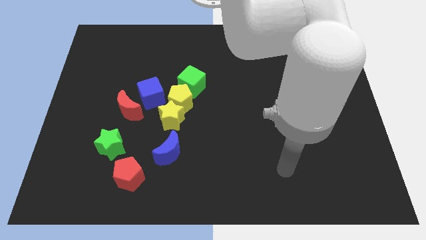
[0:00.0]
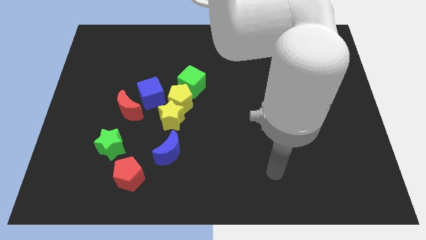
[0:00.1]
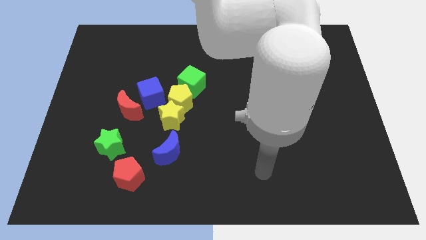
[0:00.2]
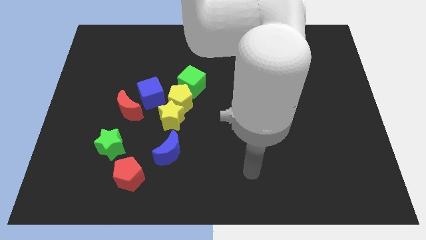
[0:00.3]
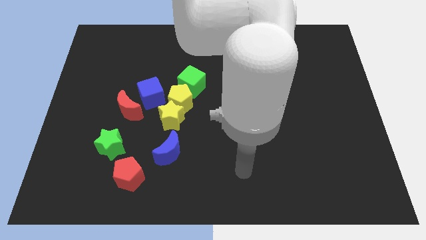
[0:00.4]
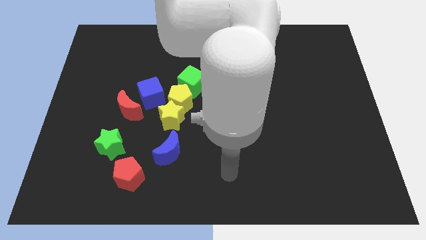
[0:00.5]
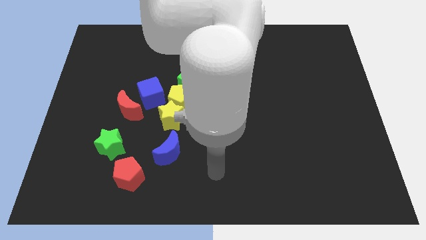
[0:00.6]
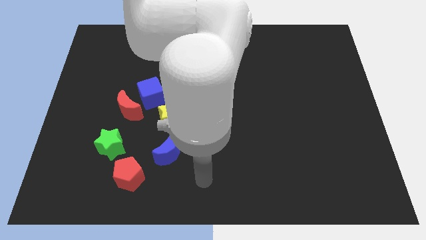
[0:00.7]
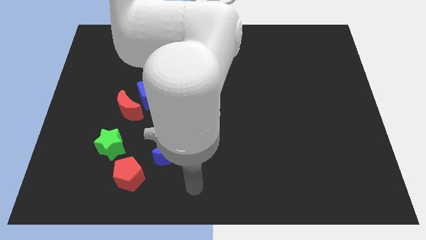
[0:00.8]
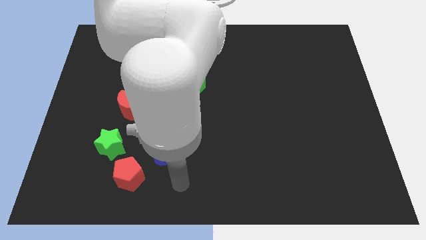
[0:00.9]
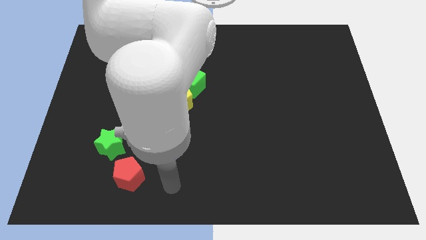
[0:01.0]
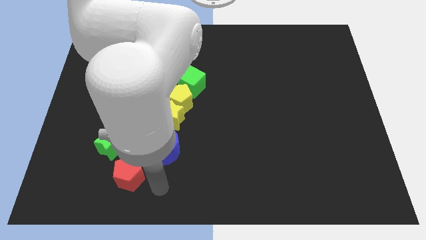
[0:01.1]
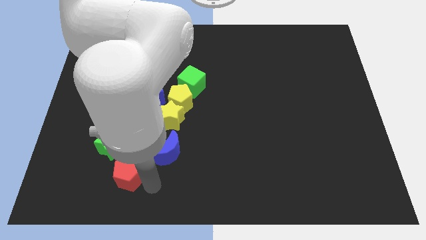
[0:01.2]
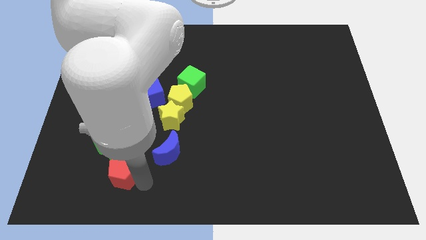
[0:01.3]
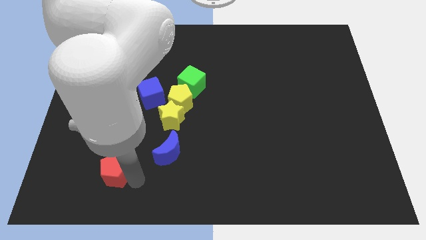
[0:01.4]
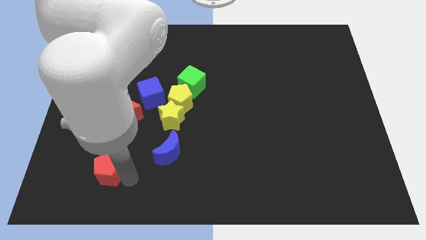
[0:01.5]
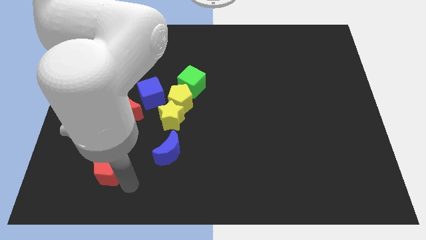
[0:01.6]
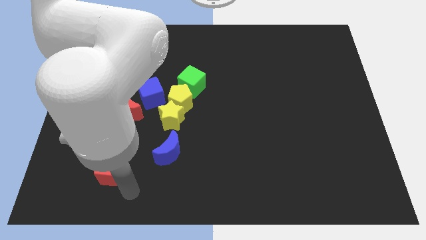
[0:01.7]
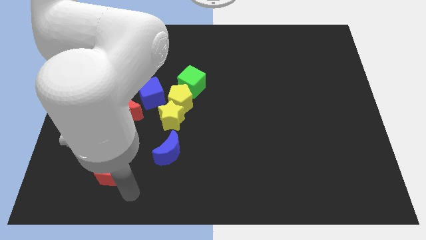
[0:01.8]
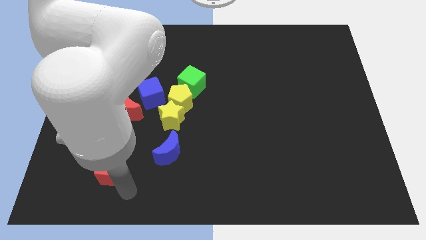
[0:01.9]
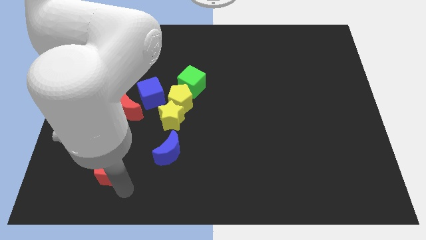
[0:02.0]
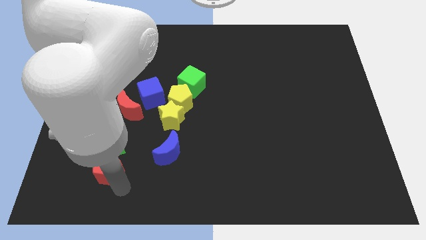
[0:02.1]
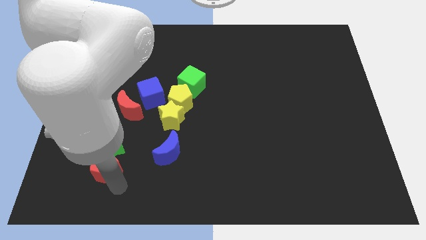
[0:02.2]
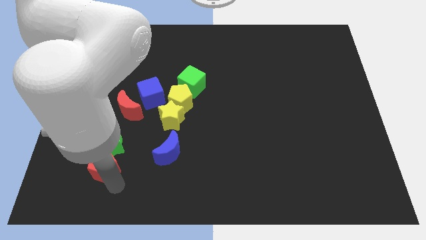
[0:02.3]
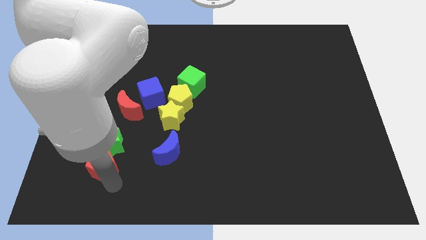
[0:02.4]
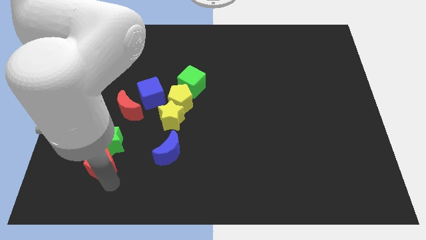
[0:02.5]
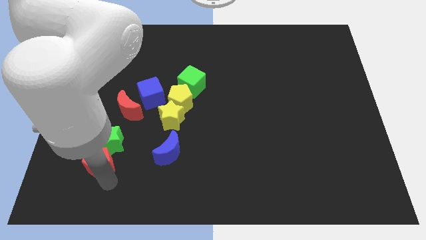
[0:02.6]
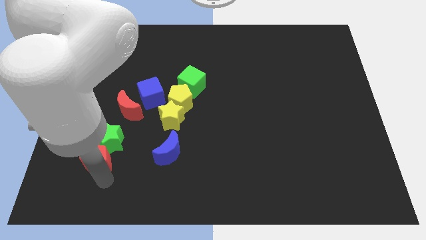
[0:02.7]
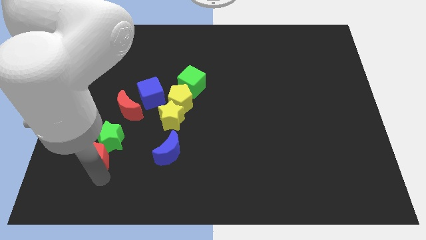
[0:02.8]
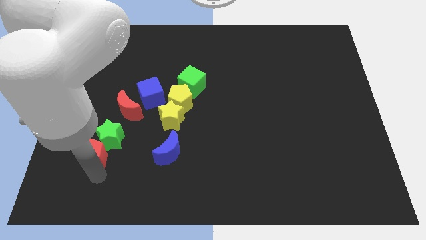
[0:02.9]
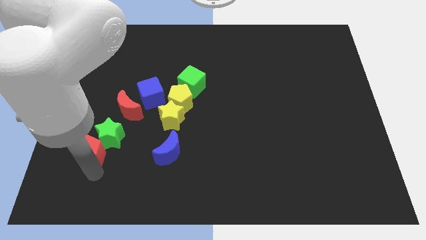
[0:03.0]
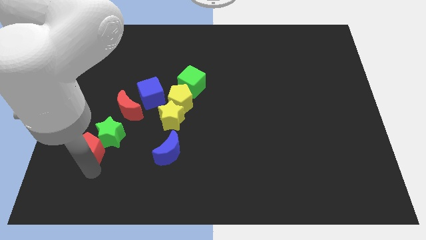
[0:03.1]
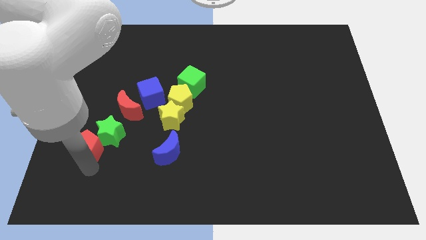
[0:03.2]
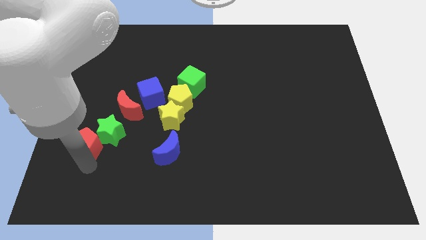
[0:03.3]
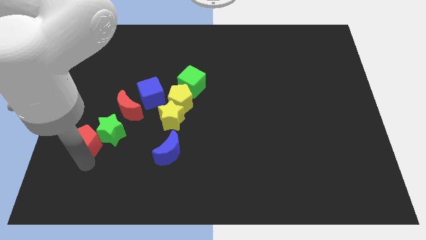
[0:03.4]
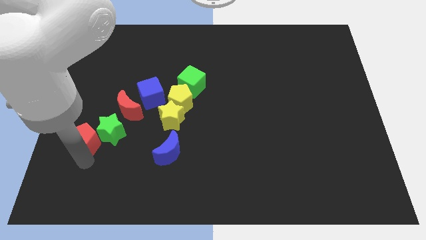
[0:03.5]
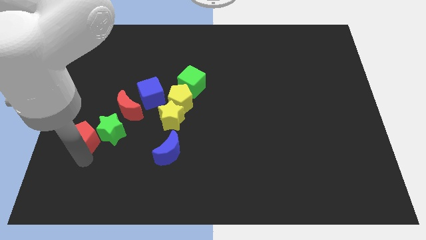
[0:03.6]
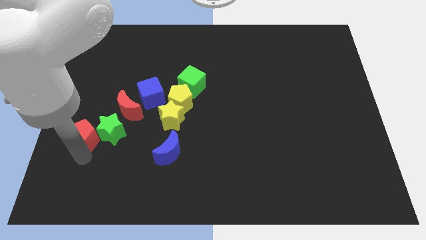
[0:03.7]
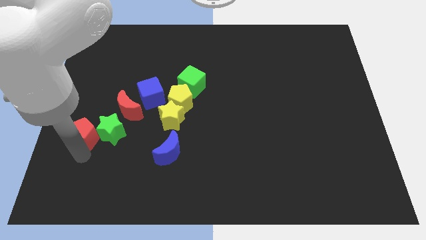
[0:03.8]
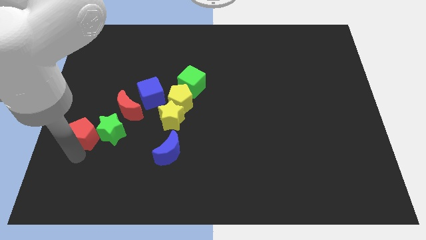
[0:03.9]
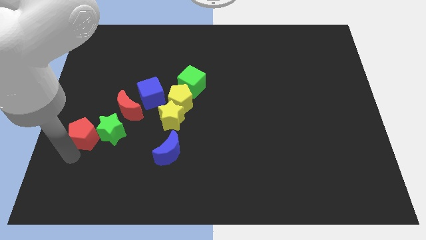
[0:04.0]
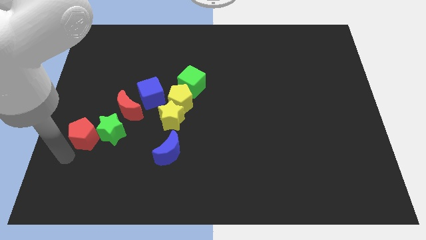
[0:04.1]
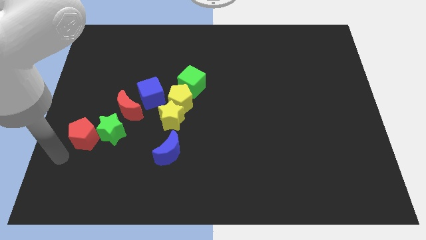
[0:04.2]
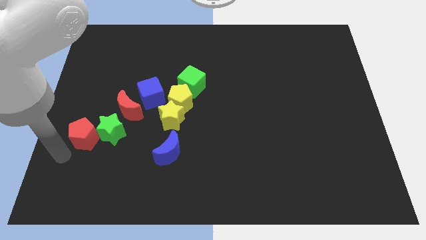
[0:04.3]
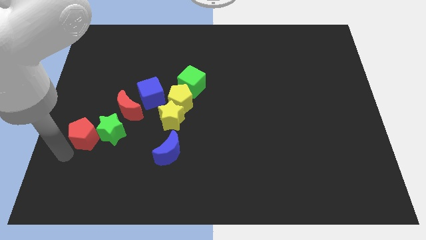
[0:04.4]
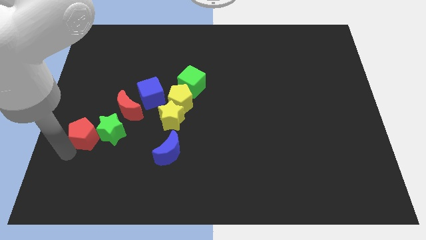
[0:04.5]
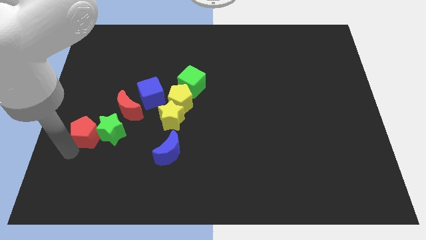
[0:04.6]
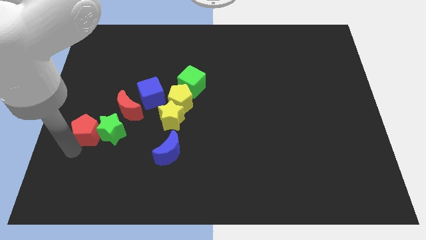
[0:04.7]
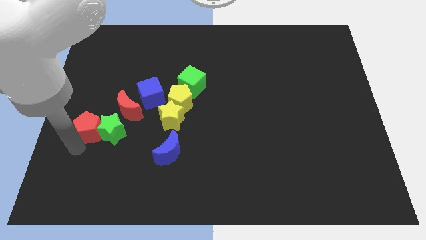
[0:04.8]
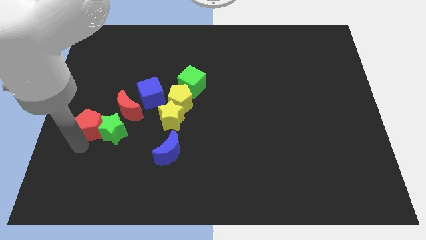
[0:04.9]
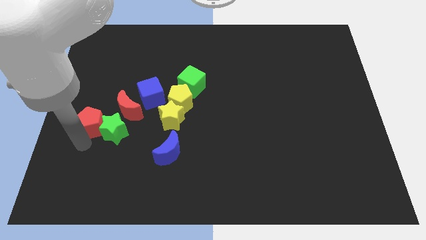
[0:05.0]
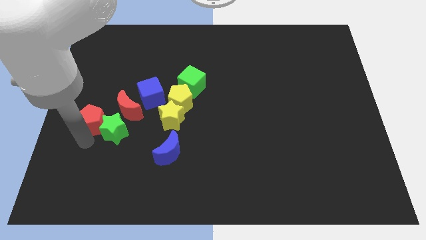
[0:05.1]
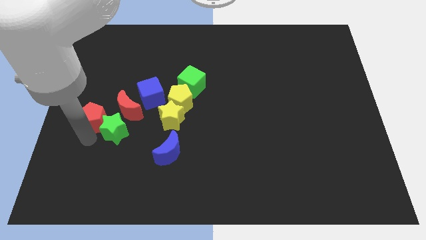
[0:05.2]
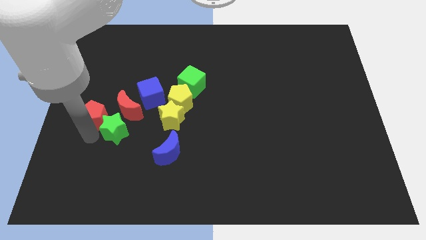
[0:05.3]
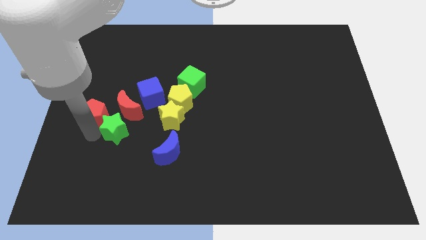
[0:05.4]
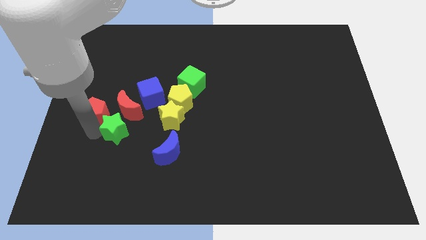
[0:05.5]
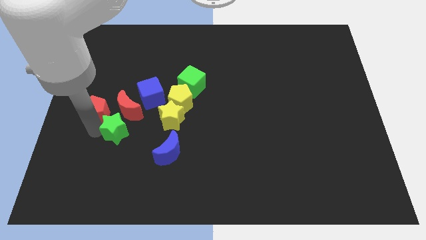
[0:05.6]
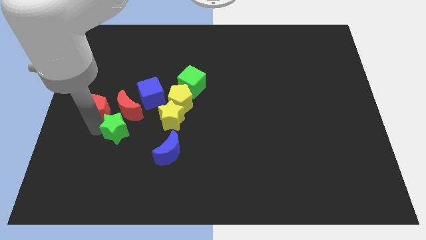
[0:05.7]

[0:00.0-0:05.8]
slide the red pentagon left of the blue cube

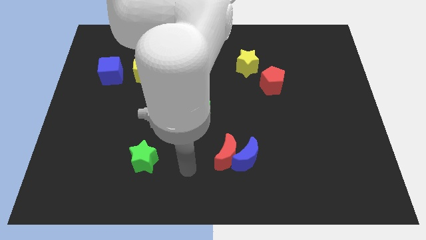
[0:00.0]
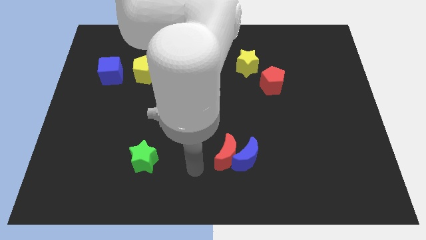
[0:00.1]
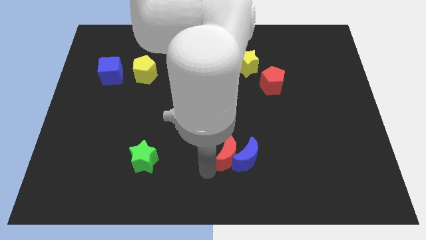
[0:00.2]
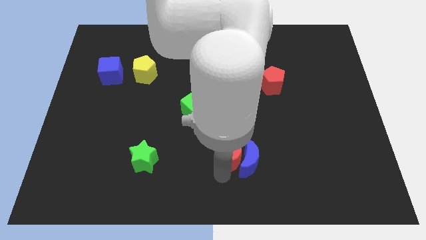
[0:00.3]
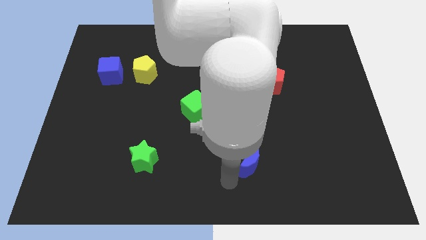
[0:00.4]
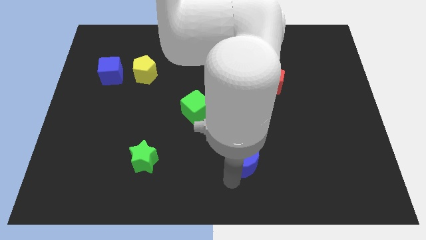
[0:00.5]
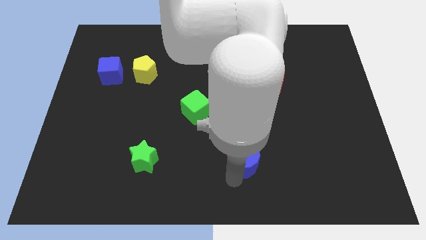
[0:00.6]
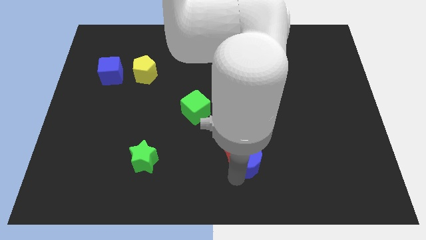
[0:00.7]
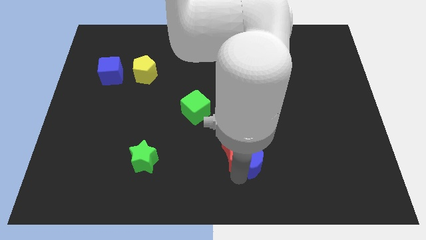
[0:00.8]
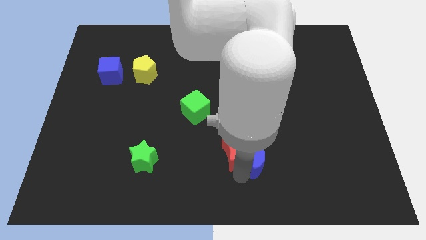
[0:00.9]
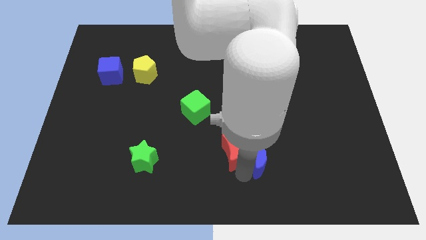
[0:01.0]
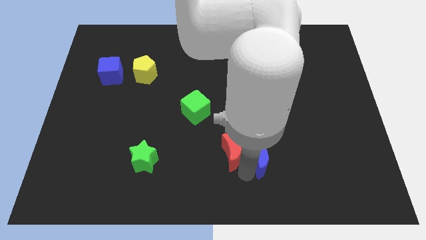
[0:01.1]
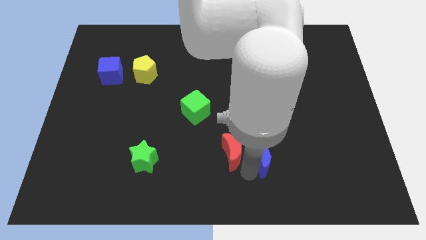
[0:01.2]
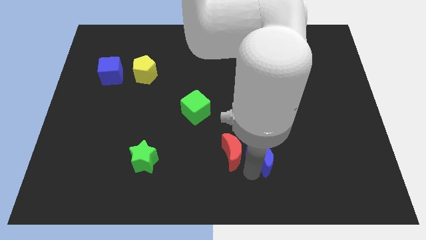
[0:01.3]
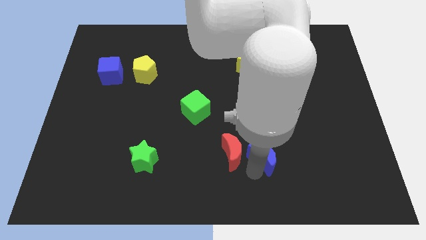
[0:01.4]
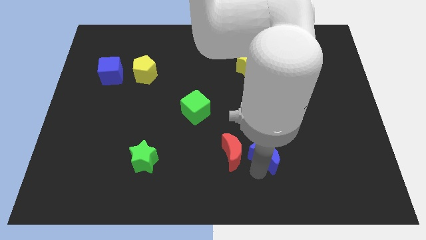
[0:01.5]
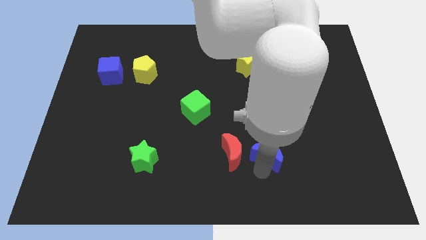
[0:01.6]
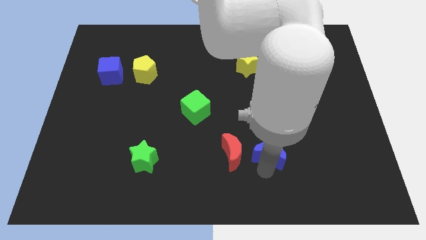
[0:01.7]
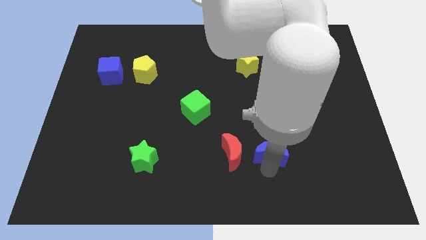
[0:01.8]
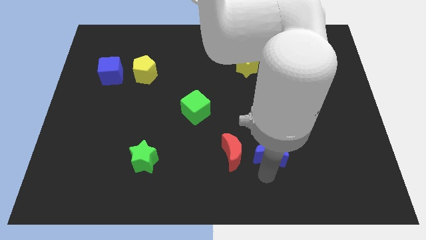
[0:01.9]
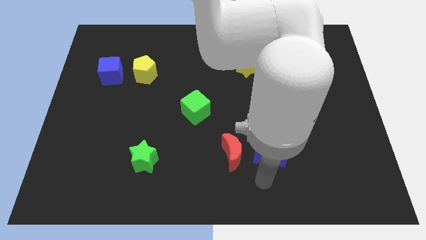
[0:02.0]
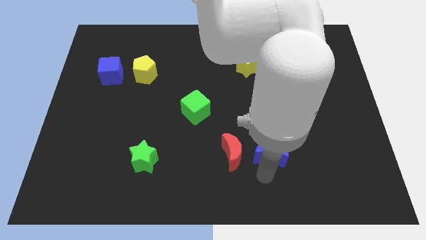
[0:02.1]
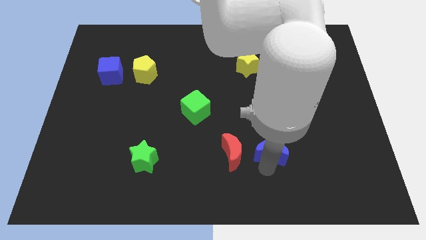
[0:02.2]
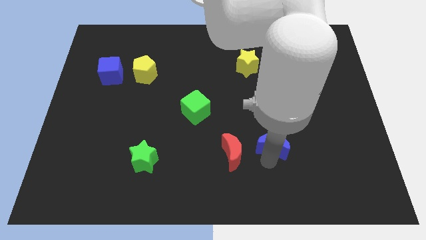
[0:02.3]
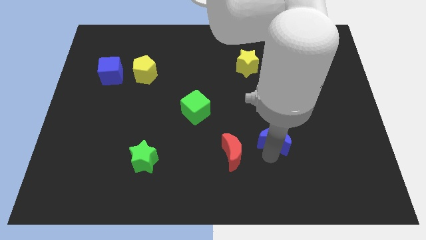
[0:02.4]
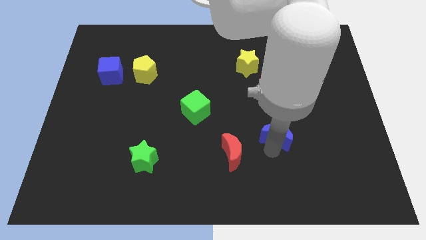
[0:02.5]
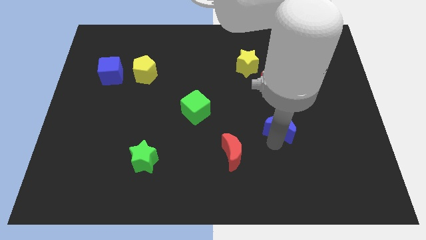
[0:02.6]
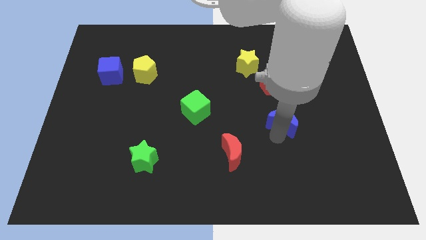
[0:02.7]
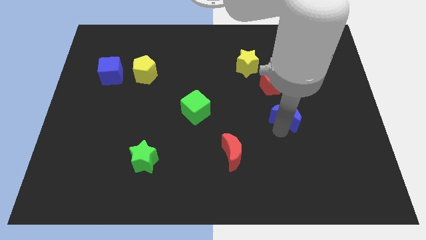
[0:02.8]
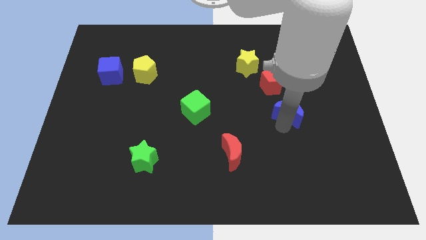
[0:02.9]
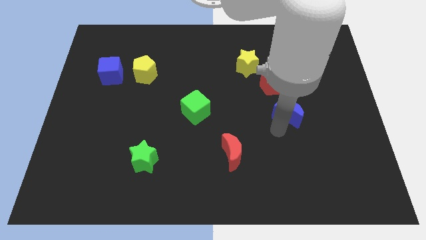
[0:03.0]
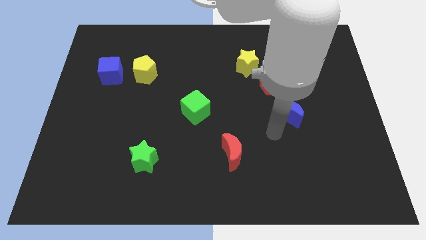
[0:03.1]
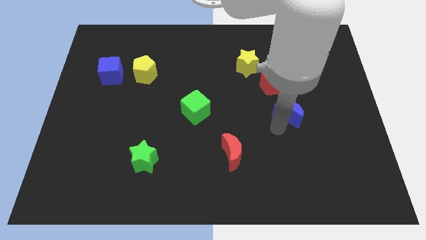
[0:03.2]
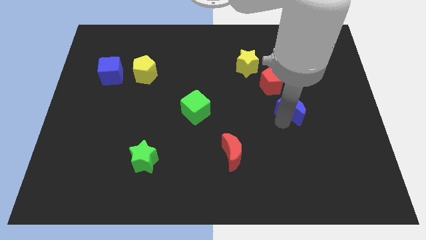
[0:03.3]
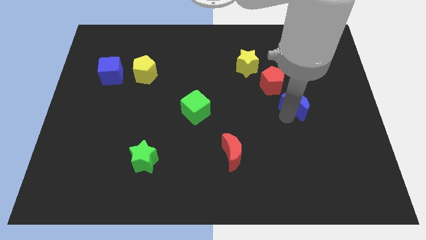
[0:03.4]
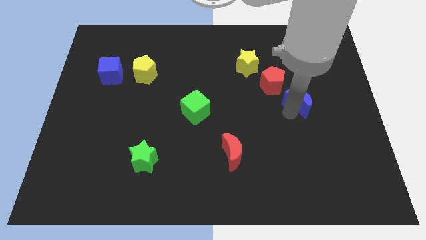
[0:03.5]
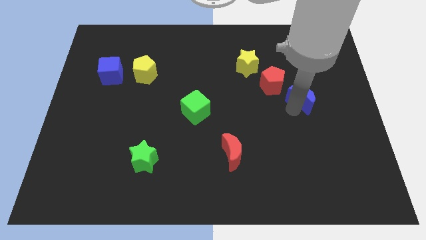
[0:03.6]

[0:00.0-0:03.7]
slide the blue moon to the right side of the red pentagon
